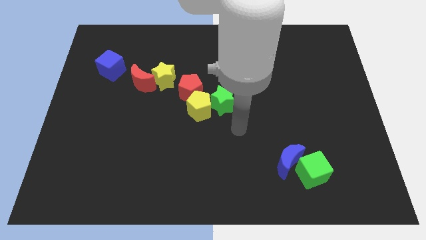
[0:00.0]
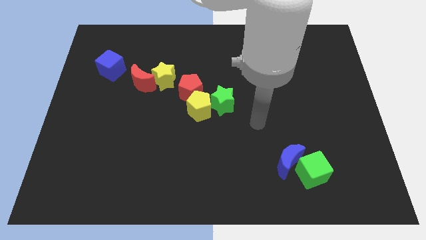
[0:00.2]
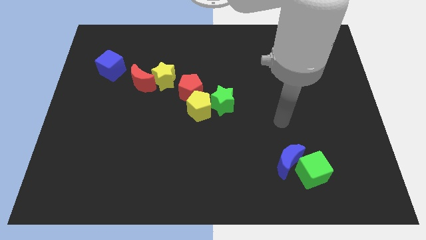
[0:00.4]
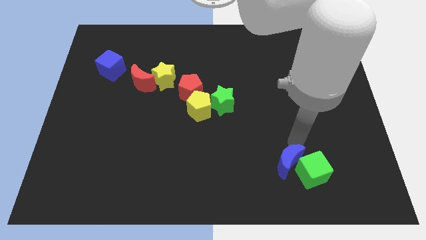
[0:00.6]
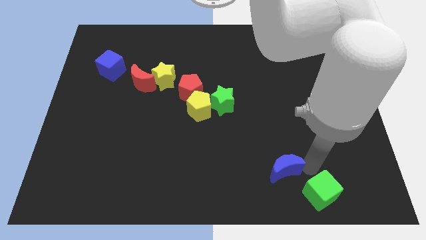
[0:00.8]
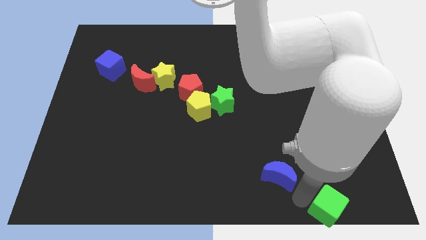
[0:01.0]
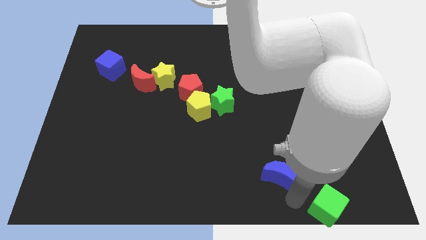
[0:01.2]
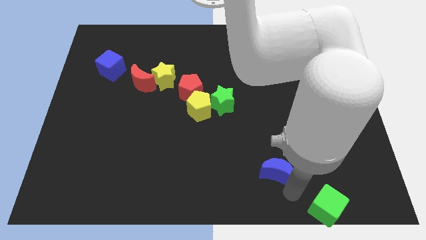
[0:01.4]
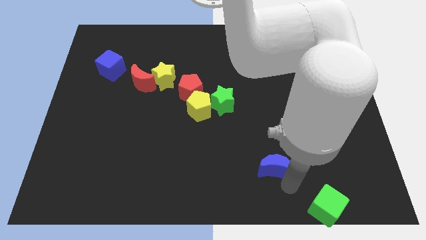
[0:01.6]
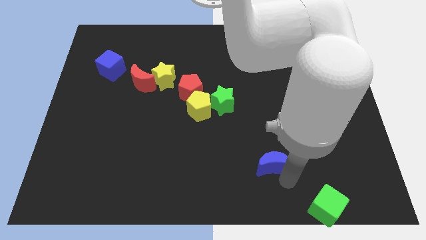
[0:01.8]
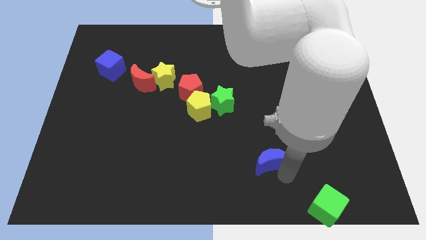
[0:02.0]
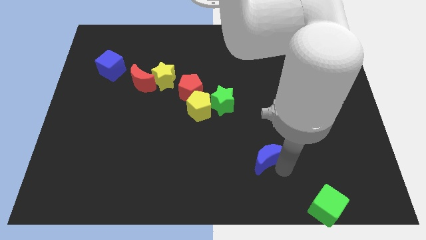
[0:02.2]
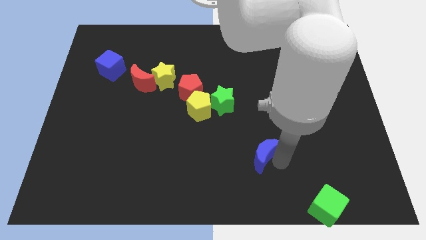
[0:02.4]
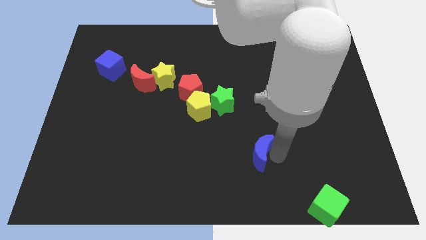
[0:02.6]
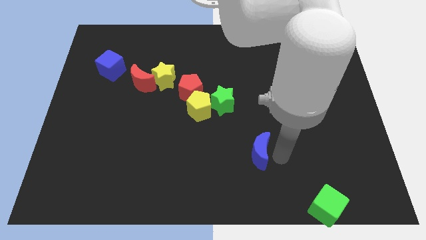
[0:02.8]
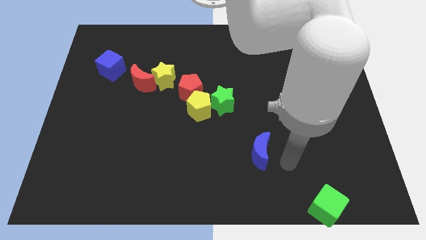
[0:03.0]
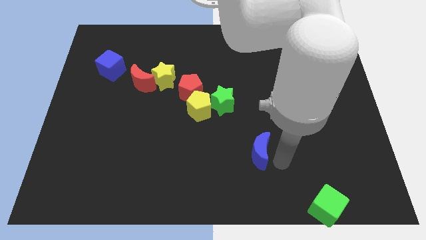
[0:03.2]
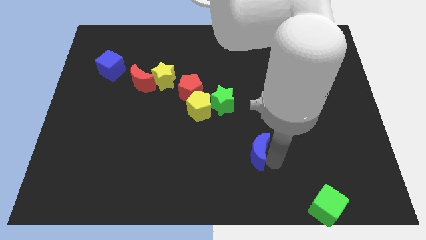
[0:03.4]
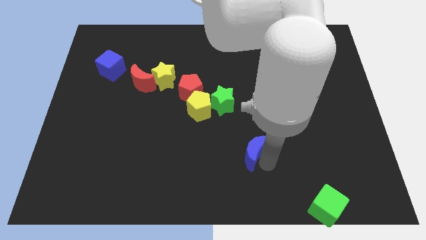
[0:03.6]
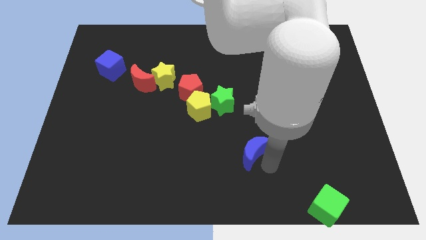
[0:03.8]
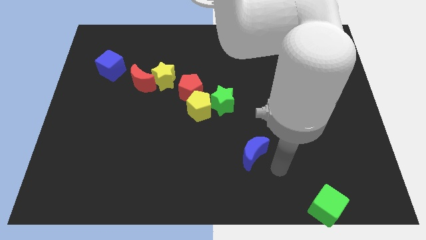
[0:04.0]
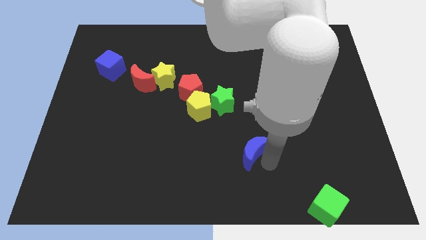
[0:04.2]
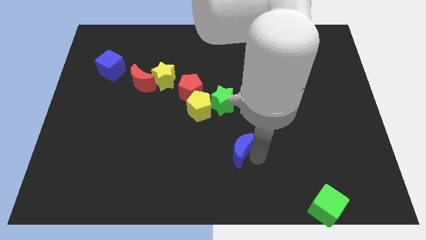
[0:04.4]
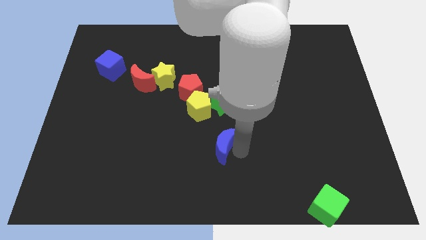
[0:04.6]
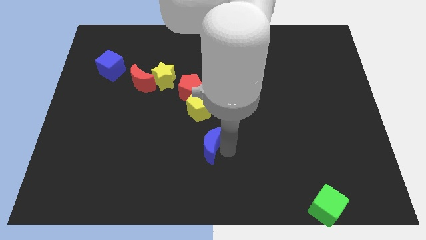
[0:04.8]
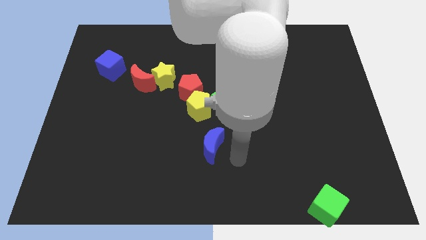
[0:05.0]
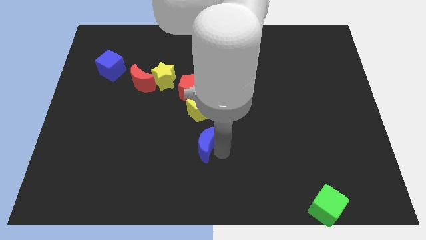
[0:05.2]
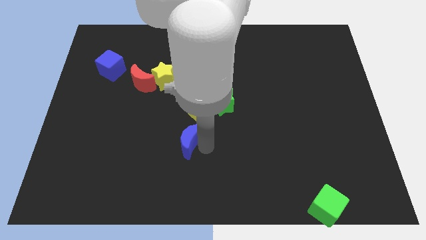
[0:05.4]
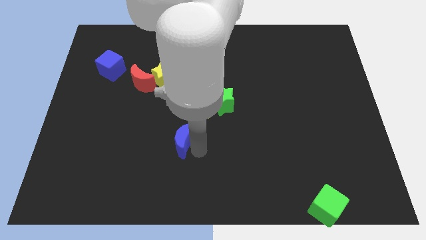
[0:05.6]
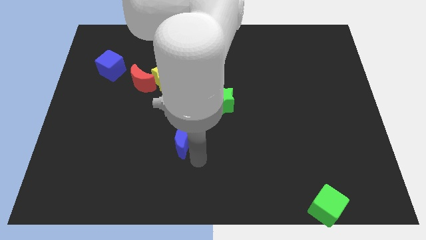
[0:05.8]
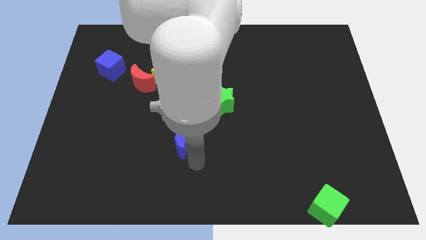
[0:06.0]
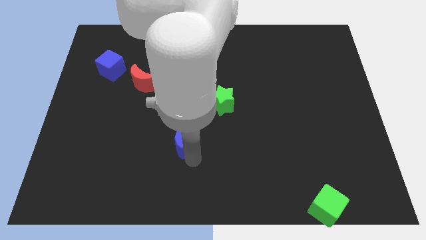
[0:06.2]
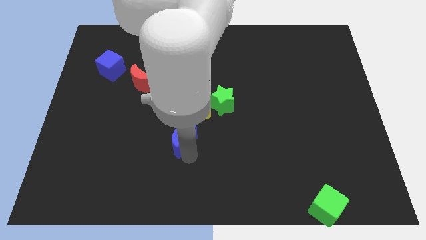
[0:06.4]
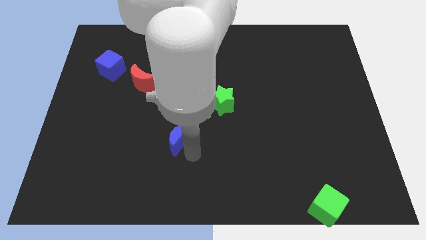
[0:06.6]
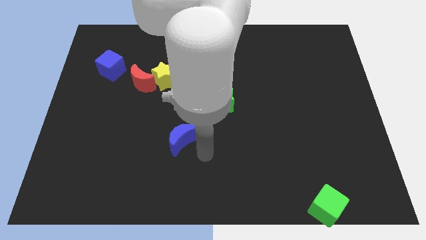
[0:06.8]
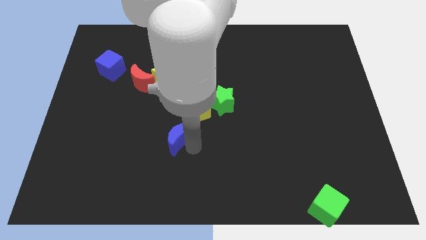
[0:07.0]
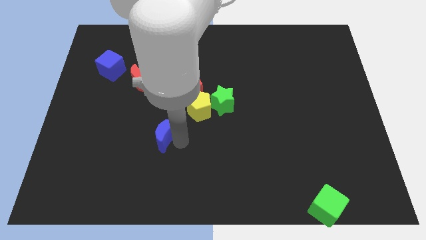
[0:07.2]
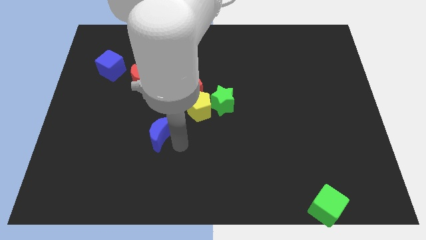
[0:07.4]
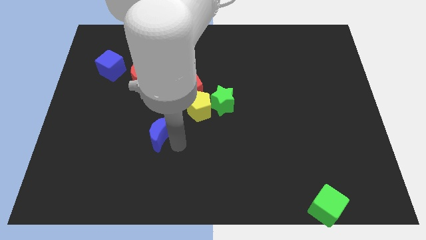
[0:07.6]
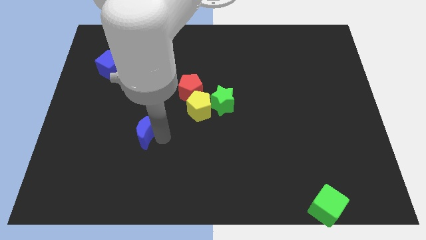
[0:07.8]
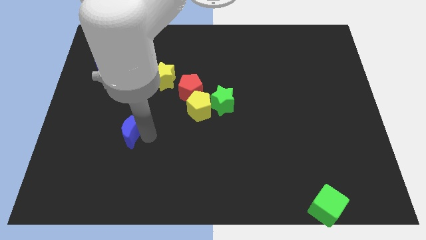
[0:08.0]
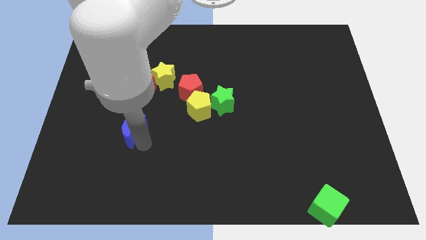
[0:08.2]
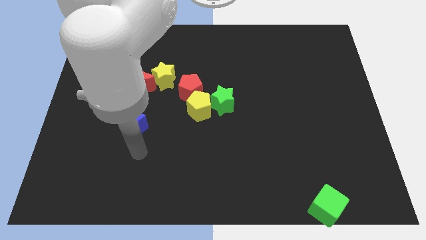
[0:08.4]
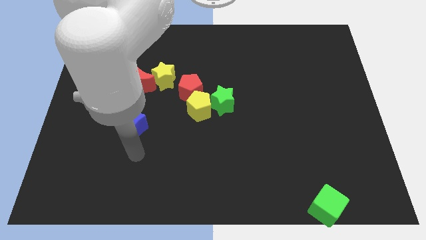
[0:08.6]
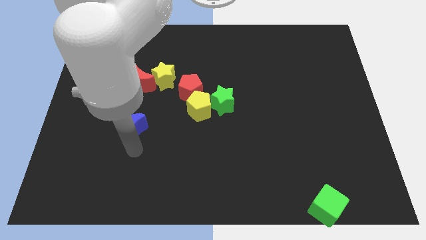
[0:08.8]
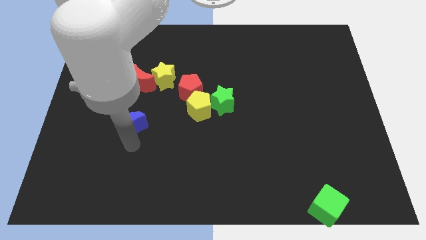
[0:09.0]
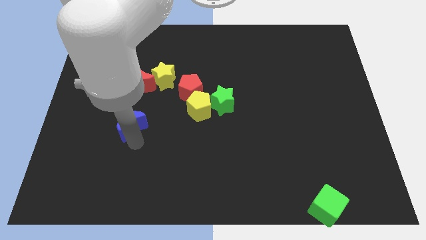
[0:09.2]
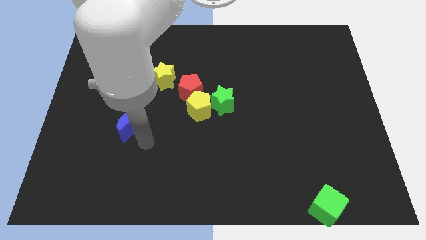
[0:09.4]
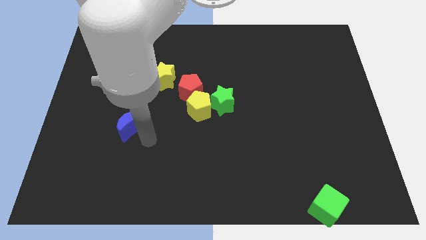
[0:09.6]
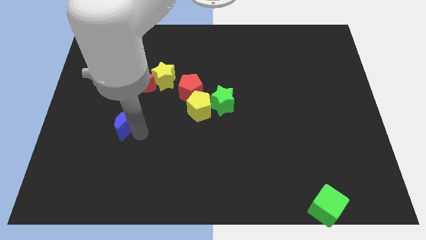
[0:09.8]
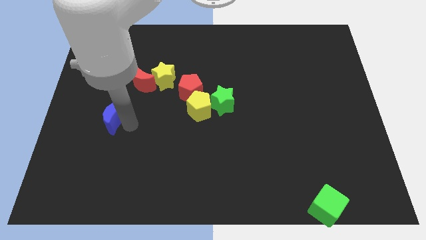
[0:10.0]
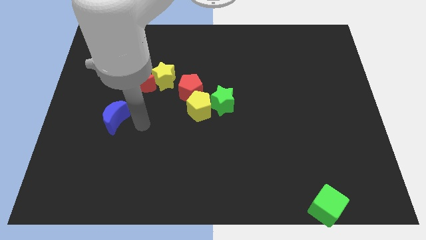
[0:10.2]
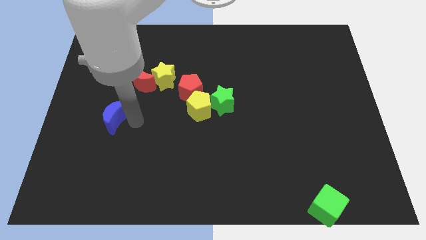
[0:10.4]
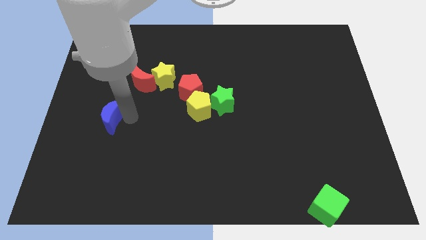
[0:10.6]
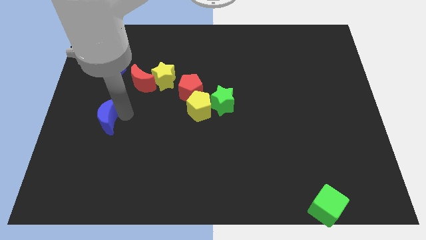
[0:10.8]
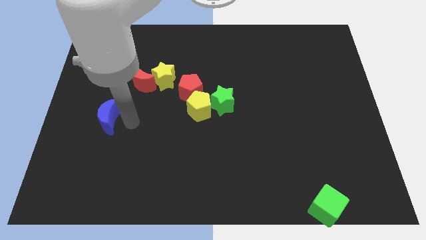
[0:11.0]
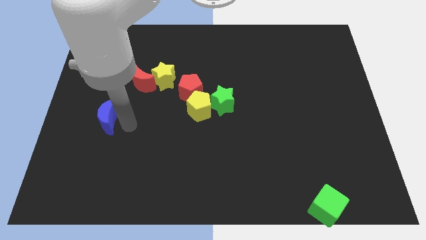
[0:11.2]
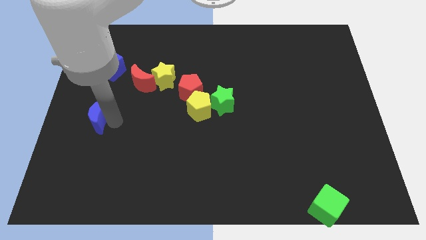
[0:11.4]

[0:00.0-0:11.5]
put the blue moon to the center left
